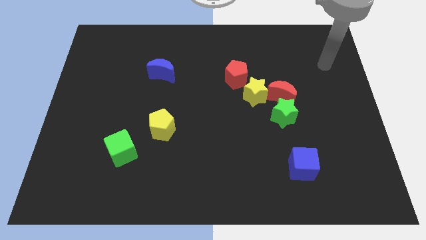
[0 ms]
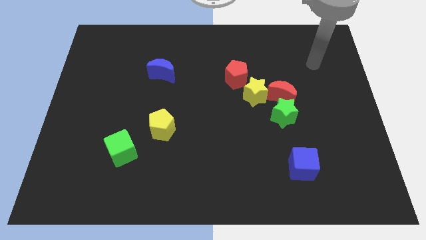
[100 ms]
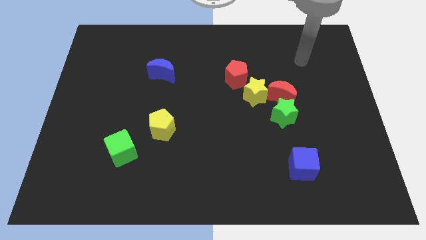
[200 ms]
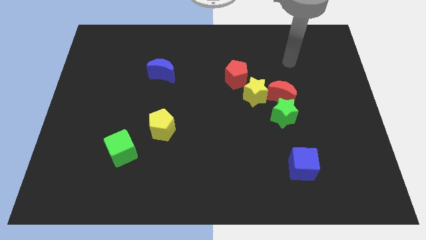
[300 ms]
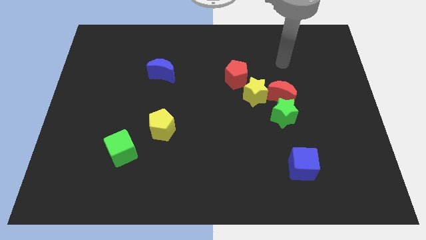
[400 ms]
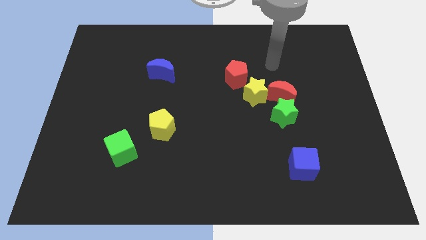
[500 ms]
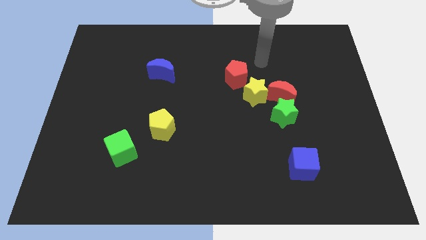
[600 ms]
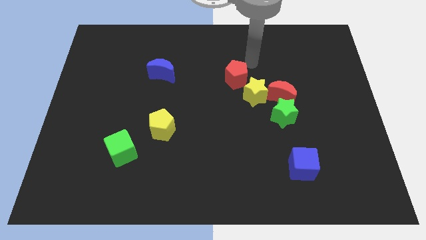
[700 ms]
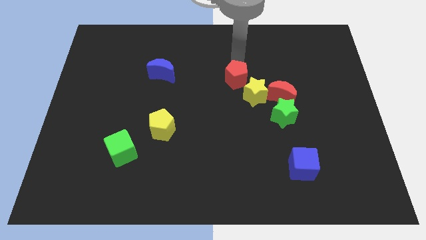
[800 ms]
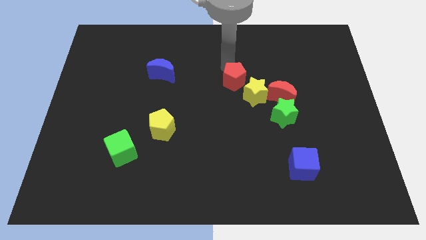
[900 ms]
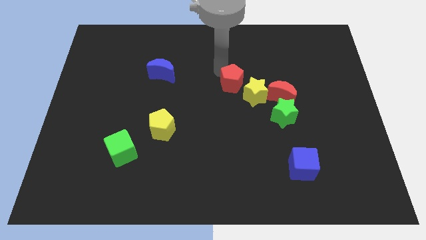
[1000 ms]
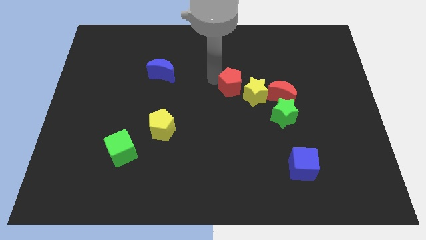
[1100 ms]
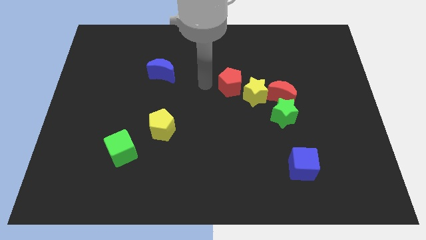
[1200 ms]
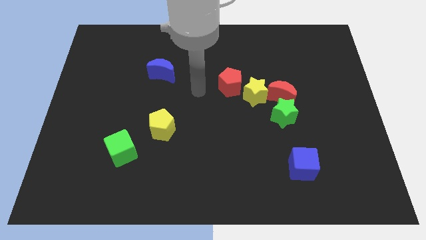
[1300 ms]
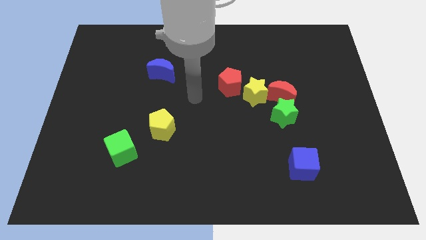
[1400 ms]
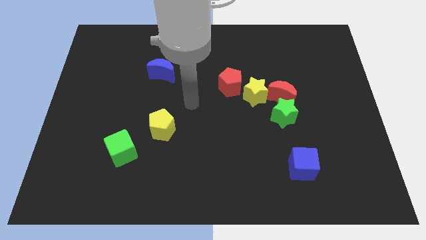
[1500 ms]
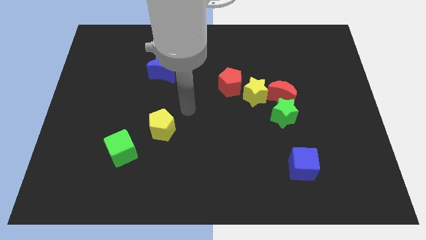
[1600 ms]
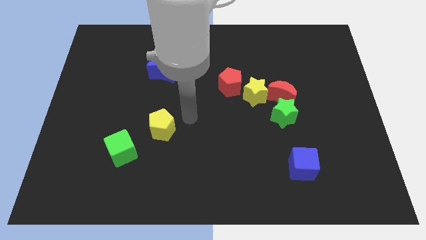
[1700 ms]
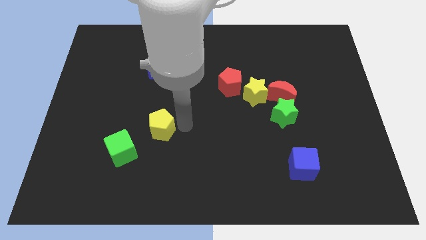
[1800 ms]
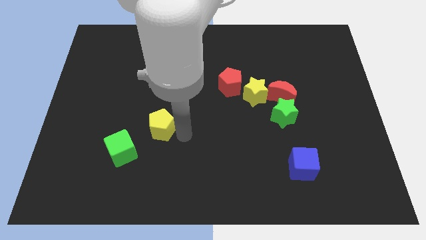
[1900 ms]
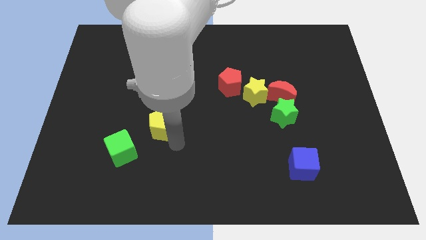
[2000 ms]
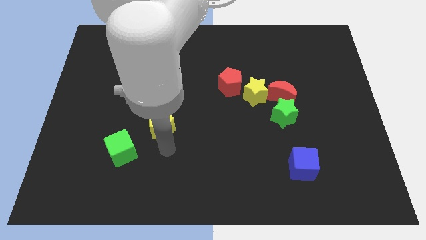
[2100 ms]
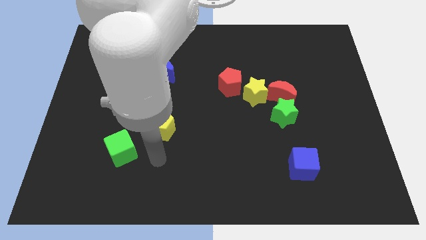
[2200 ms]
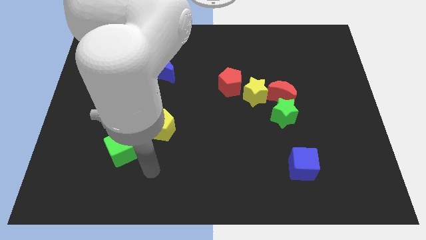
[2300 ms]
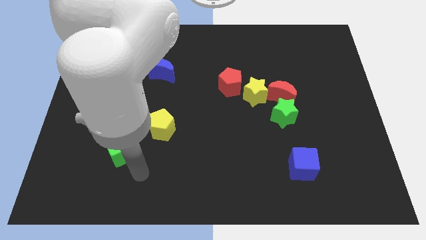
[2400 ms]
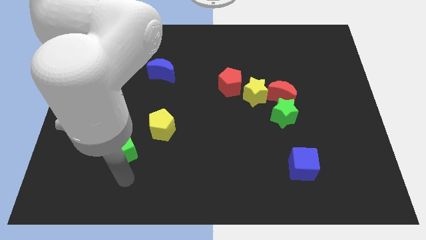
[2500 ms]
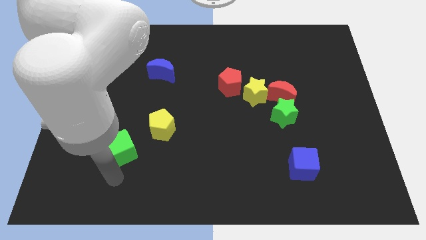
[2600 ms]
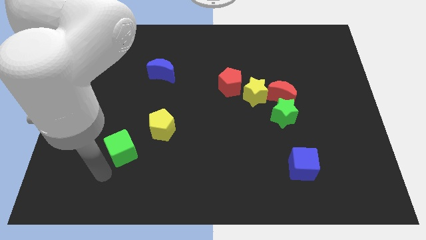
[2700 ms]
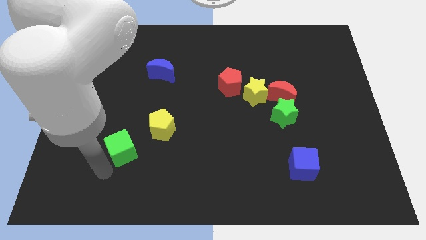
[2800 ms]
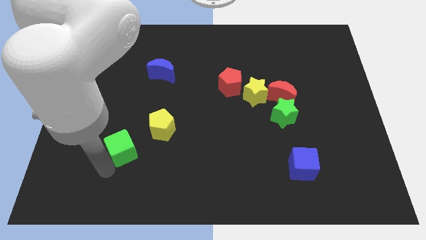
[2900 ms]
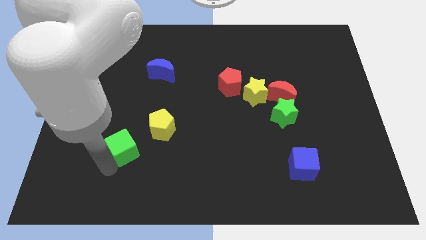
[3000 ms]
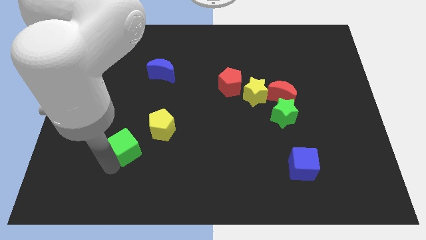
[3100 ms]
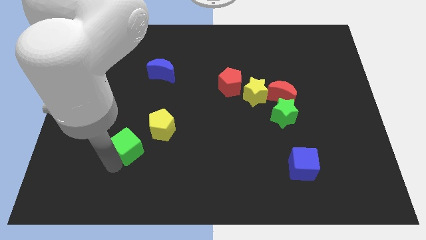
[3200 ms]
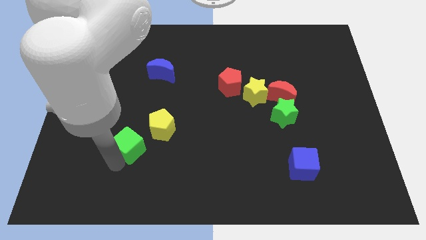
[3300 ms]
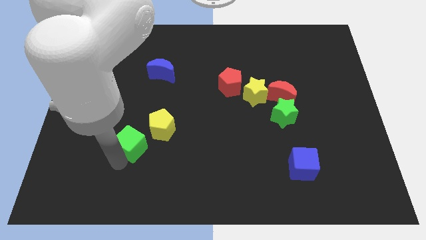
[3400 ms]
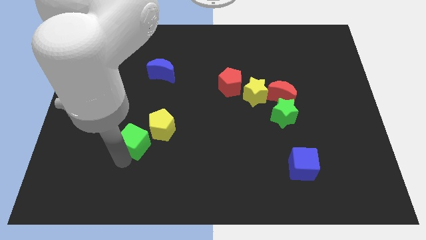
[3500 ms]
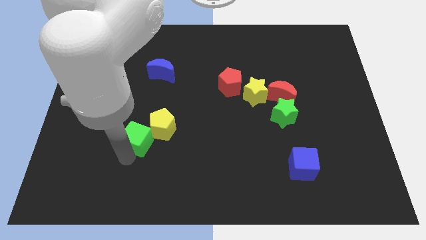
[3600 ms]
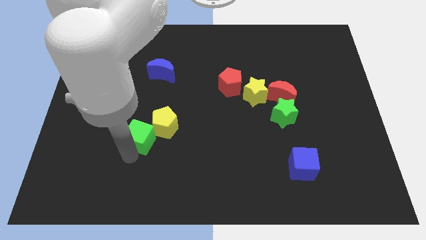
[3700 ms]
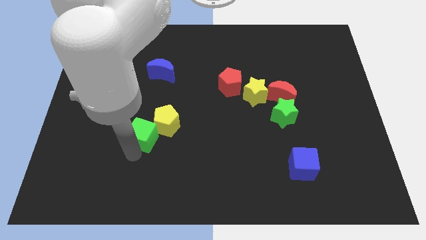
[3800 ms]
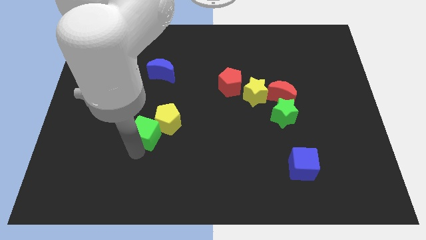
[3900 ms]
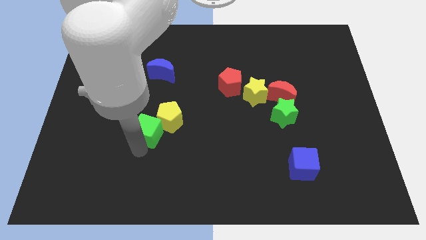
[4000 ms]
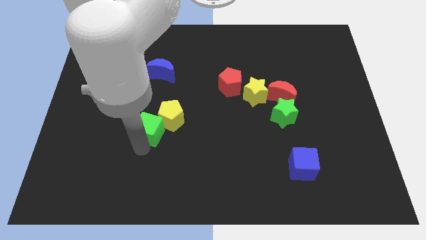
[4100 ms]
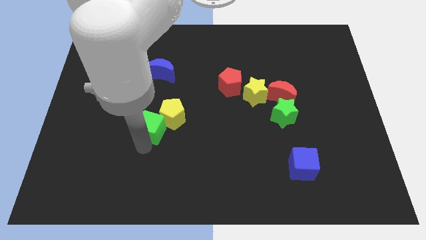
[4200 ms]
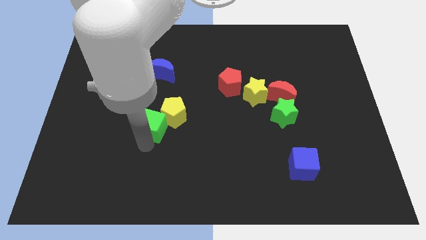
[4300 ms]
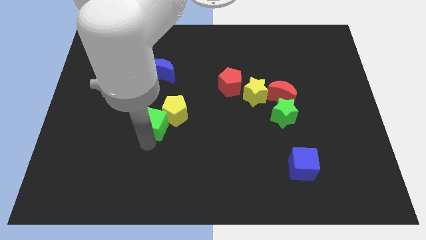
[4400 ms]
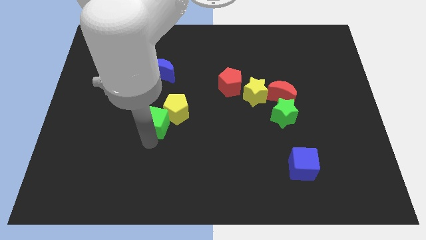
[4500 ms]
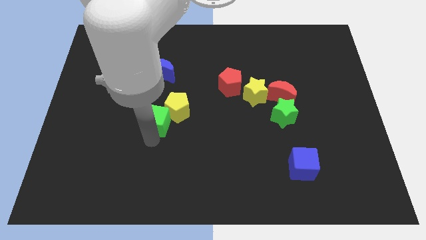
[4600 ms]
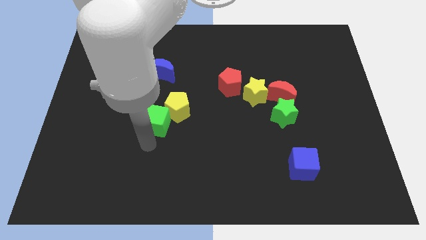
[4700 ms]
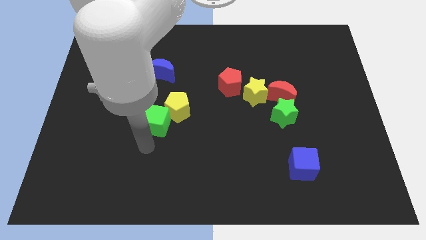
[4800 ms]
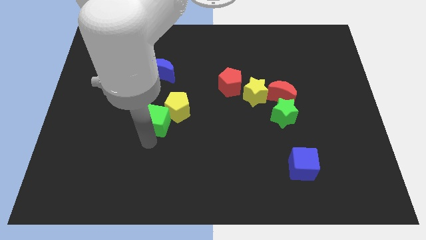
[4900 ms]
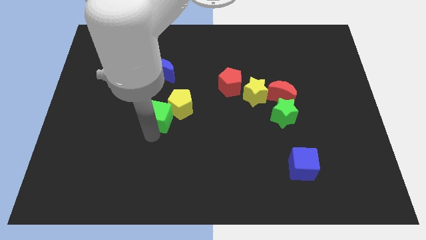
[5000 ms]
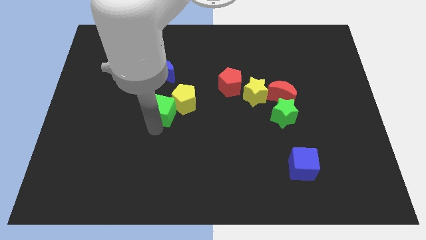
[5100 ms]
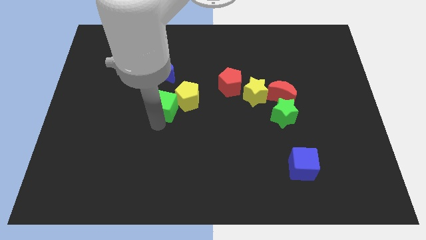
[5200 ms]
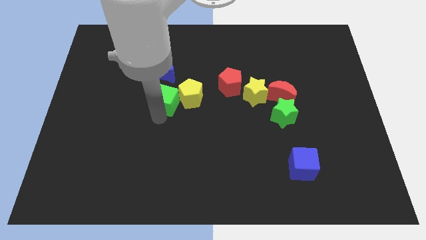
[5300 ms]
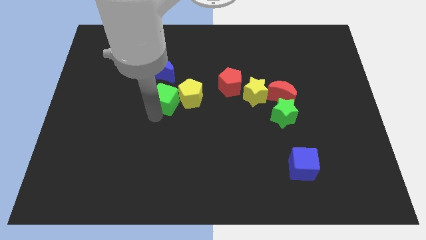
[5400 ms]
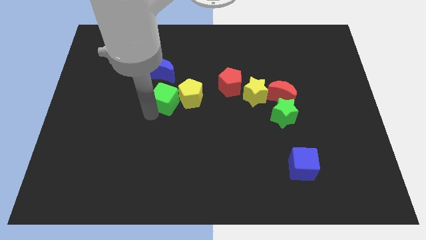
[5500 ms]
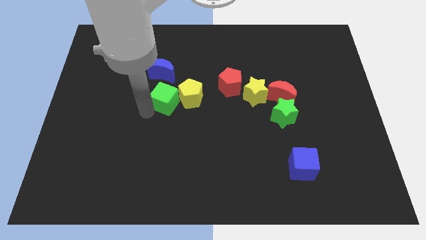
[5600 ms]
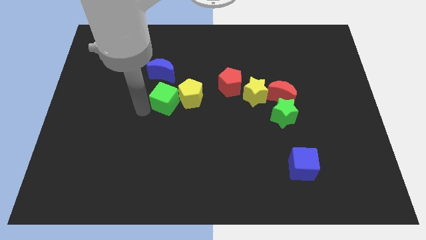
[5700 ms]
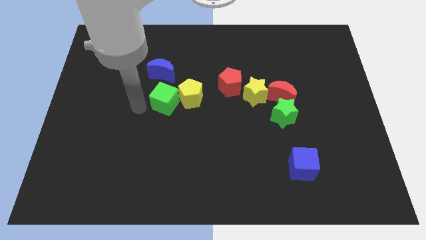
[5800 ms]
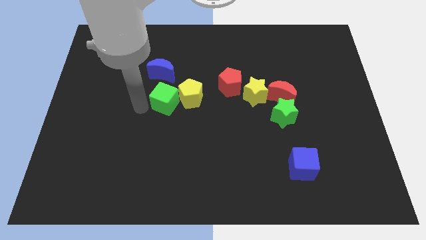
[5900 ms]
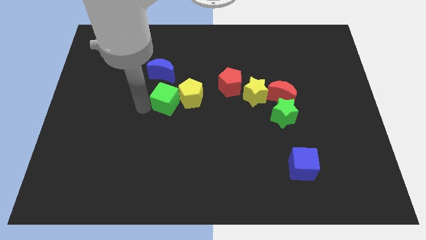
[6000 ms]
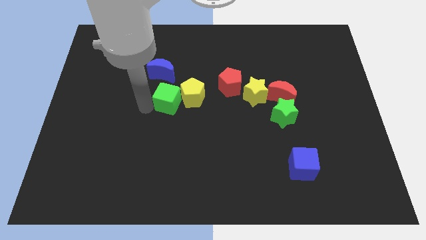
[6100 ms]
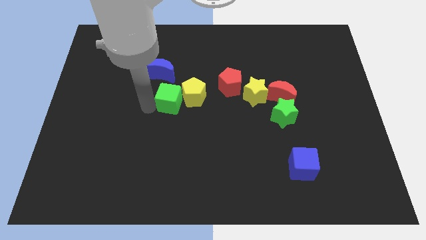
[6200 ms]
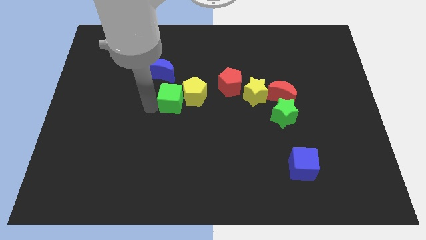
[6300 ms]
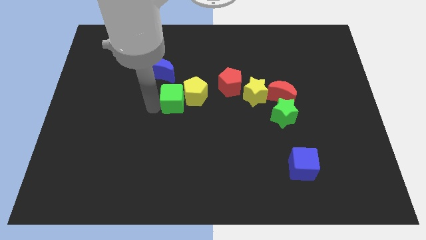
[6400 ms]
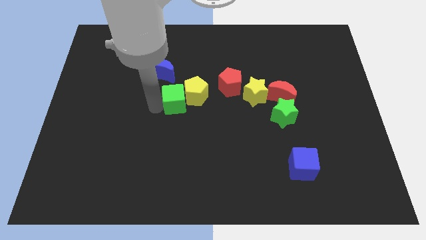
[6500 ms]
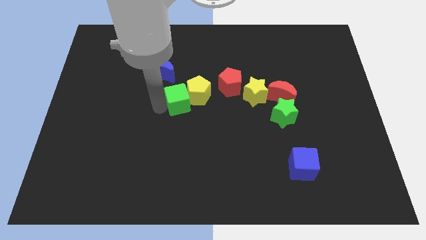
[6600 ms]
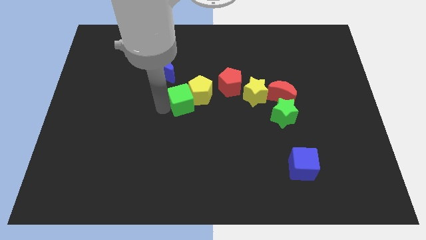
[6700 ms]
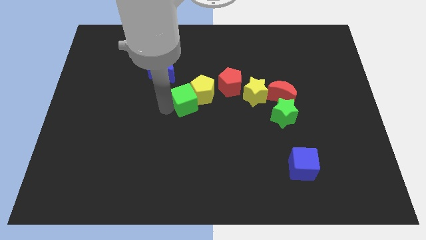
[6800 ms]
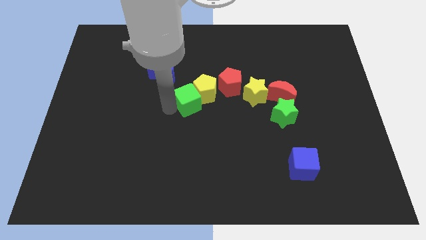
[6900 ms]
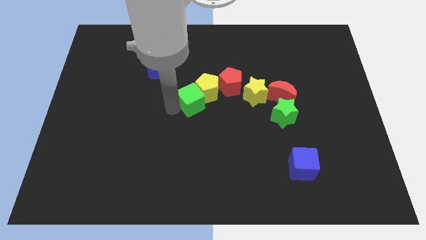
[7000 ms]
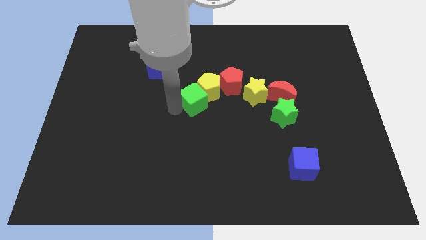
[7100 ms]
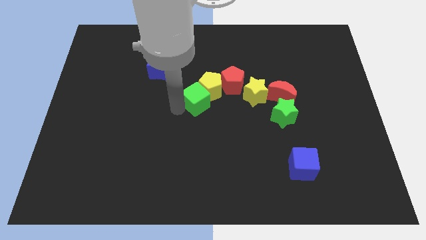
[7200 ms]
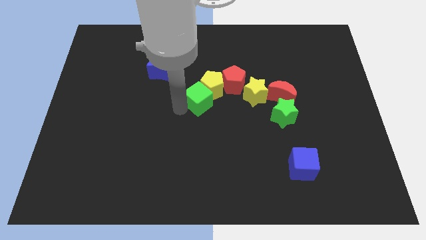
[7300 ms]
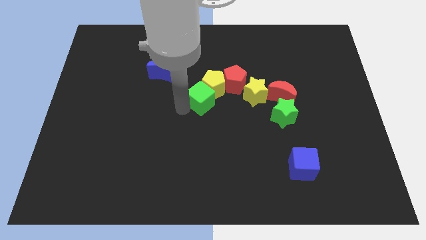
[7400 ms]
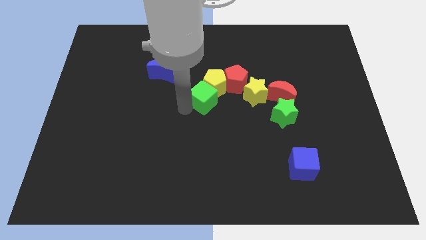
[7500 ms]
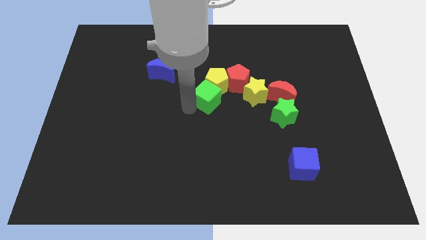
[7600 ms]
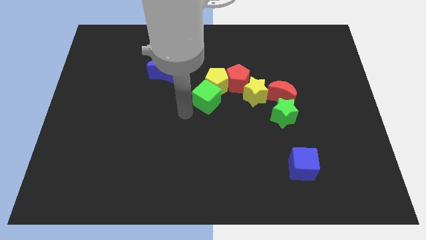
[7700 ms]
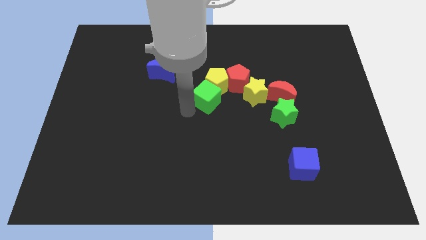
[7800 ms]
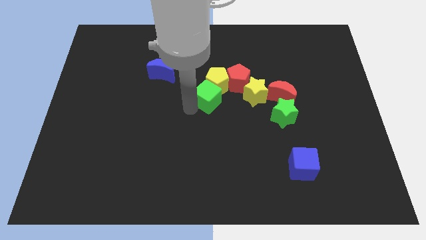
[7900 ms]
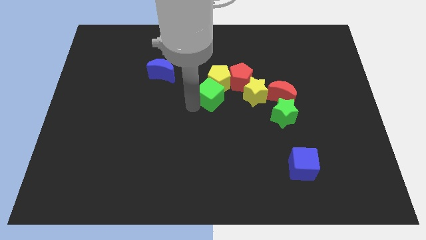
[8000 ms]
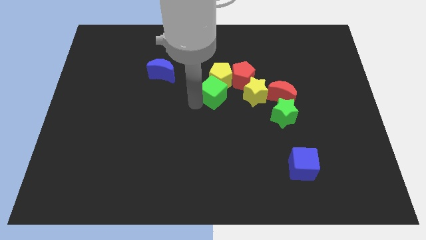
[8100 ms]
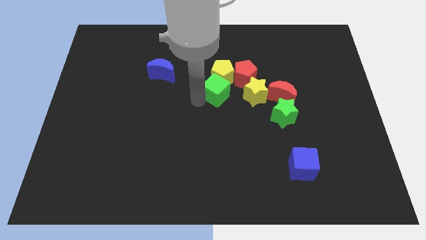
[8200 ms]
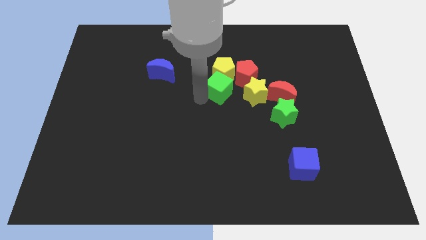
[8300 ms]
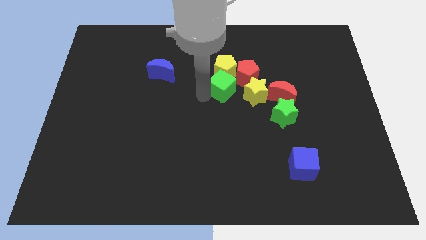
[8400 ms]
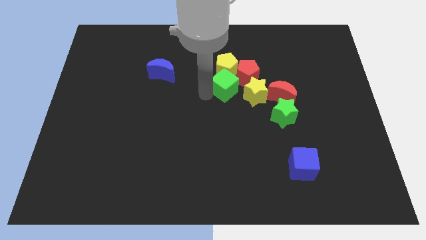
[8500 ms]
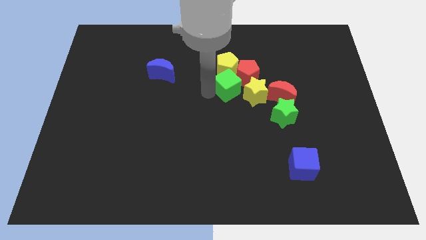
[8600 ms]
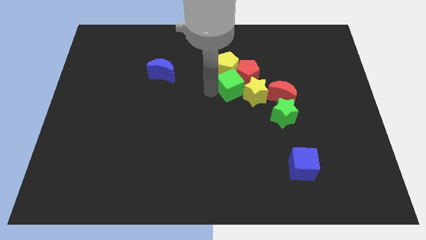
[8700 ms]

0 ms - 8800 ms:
put the green cube next to the red pentagon
